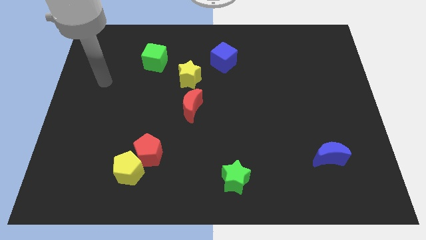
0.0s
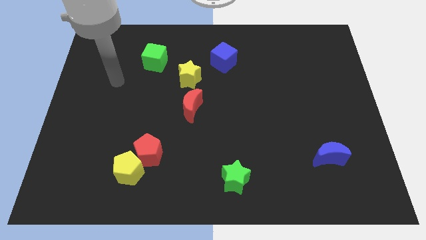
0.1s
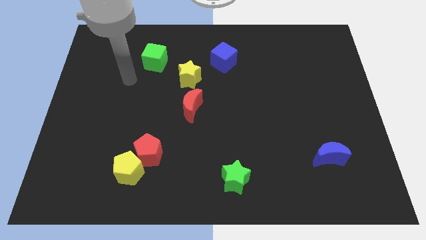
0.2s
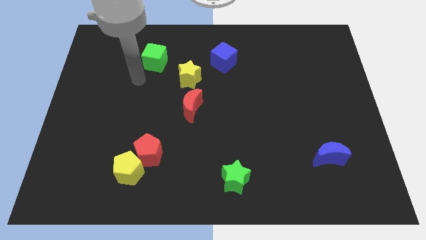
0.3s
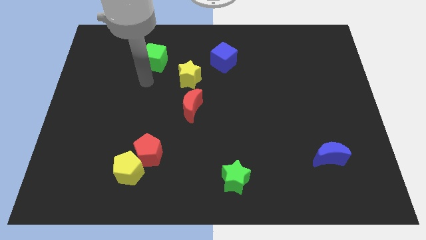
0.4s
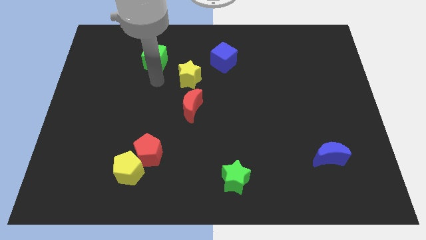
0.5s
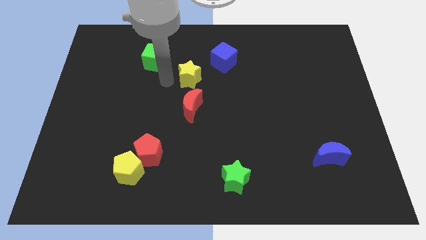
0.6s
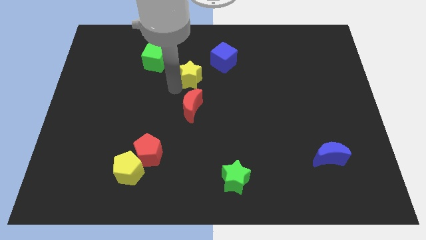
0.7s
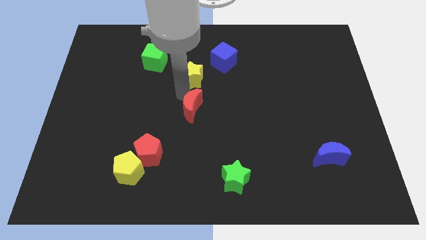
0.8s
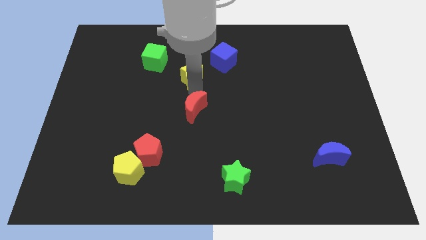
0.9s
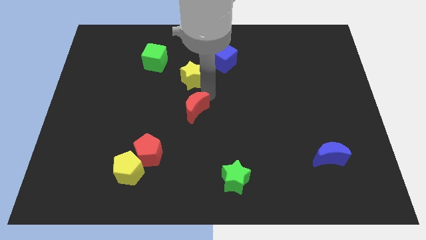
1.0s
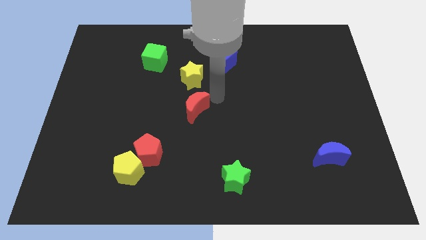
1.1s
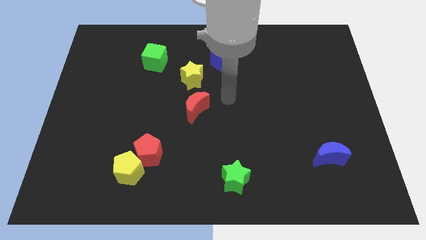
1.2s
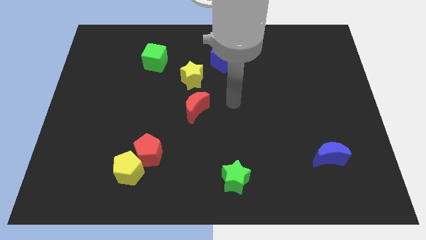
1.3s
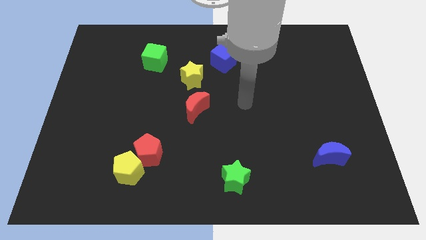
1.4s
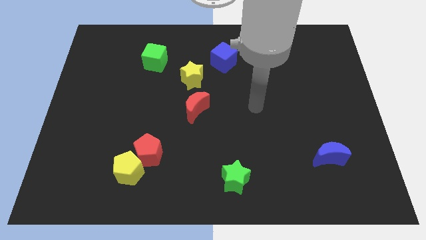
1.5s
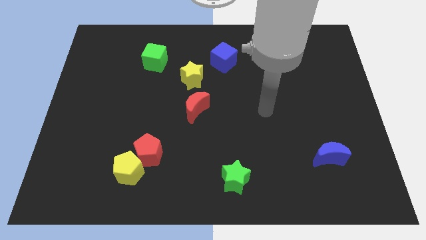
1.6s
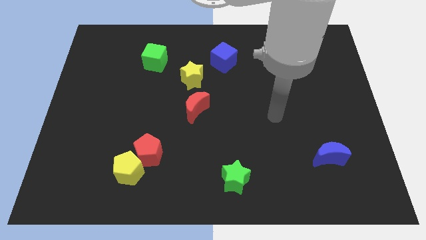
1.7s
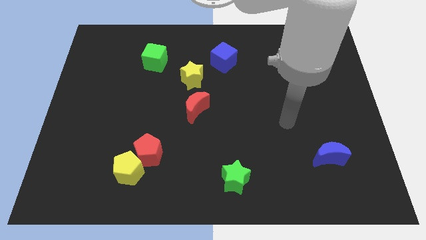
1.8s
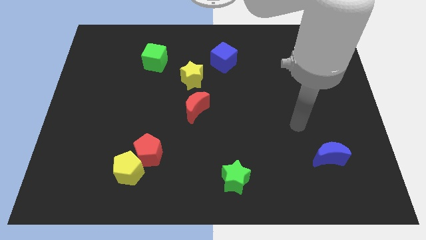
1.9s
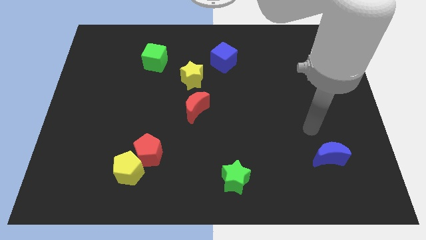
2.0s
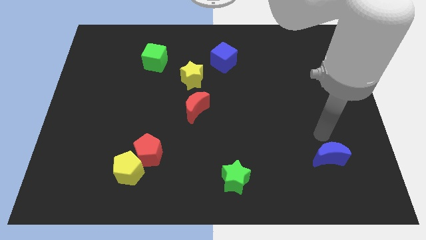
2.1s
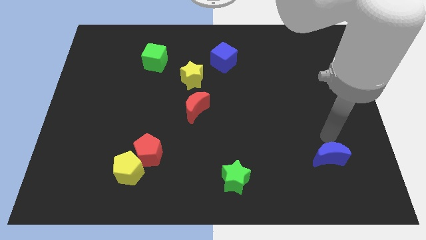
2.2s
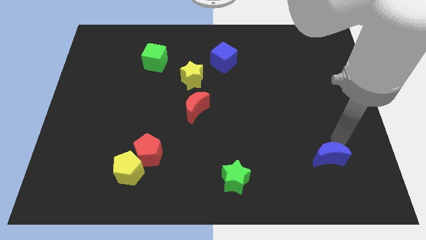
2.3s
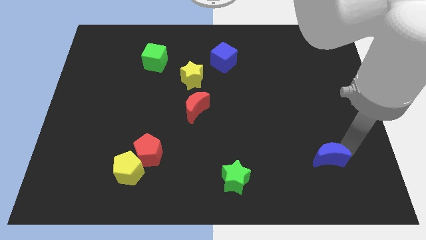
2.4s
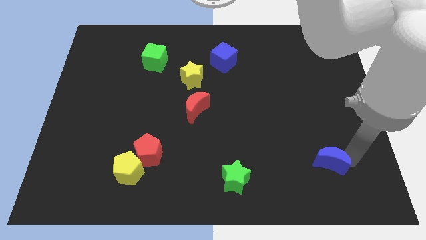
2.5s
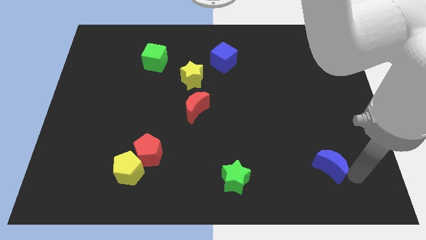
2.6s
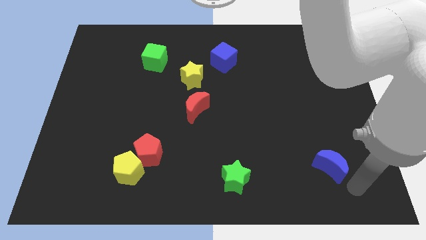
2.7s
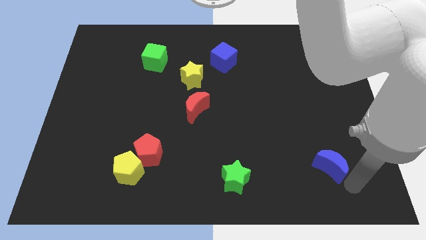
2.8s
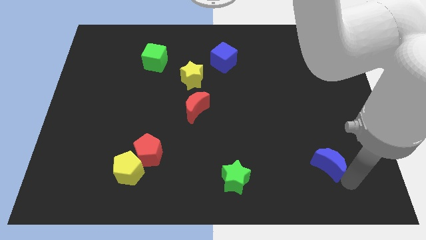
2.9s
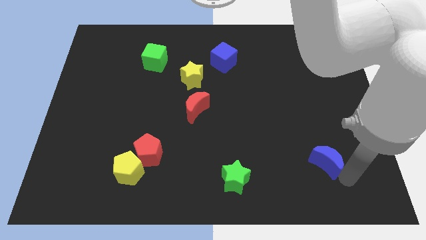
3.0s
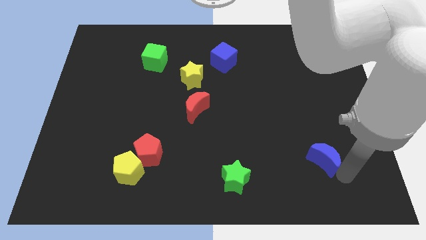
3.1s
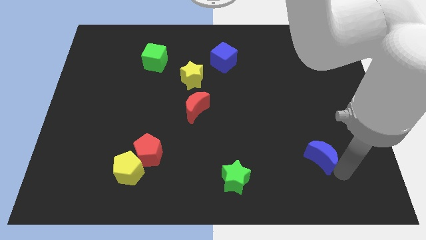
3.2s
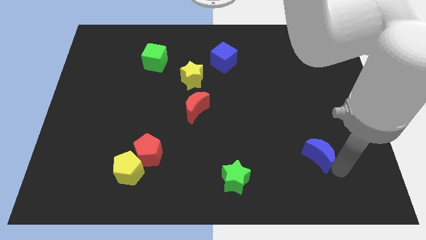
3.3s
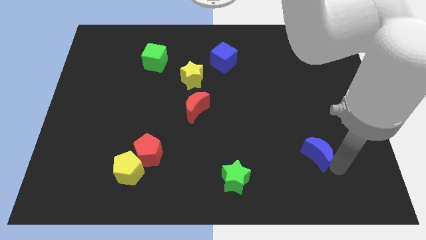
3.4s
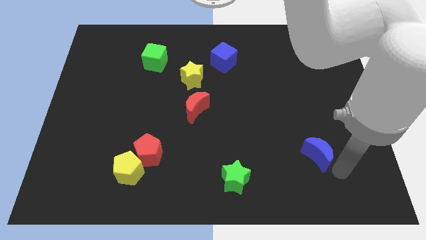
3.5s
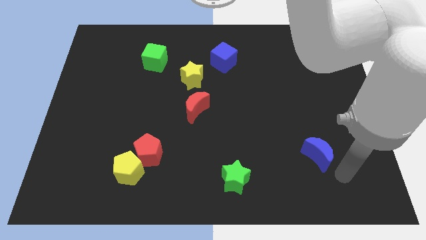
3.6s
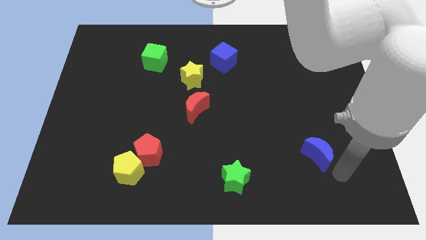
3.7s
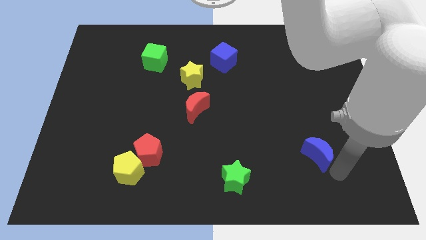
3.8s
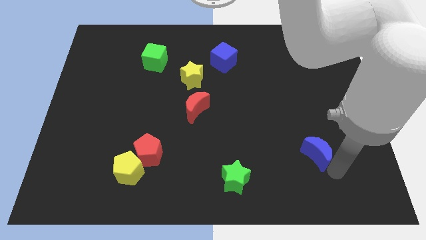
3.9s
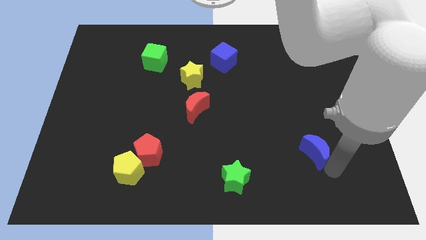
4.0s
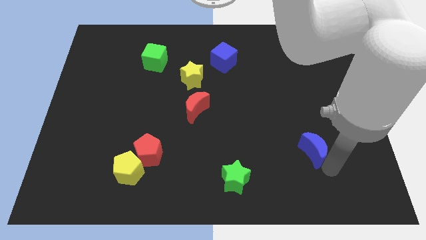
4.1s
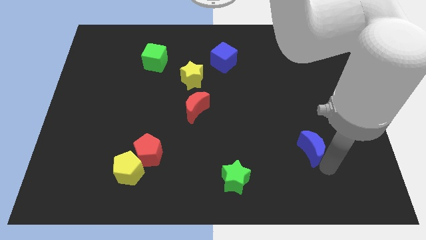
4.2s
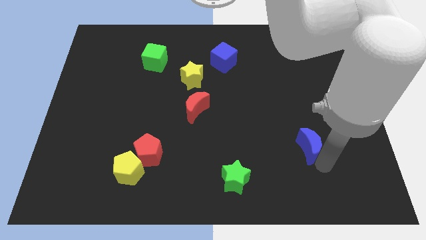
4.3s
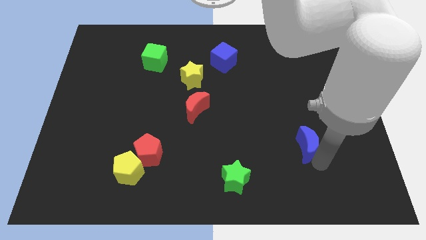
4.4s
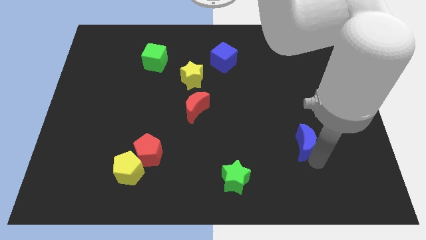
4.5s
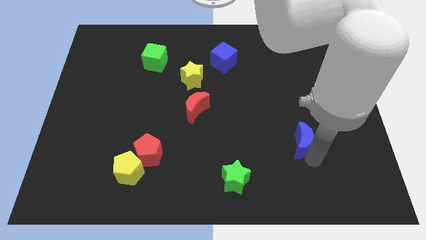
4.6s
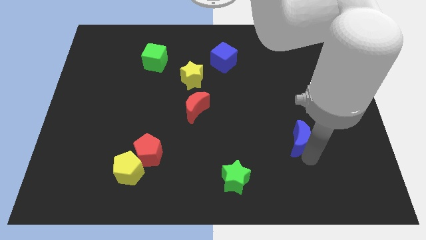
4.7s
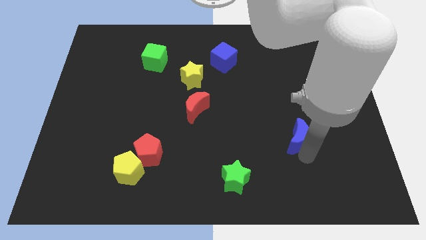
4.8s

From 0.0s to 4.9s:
slightly slide the blue moon diagonally upwards and left

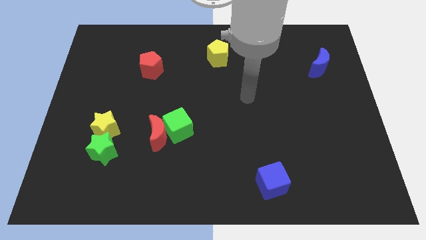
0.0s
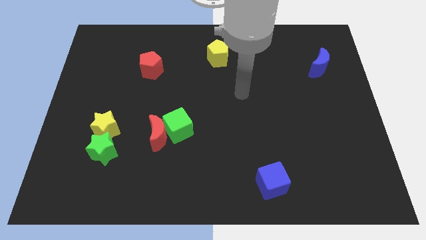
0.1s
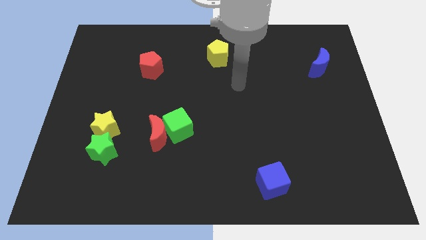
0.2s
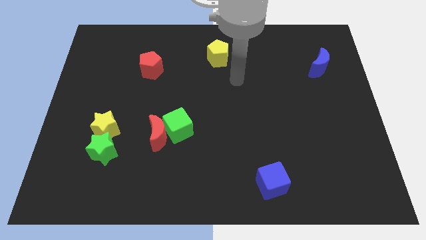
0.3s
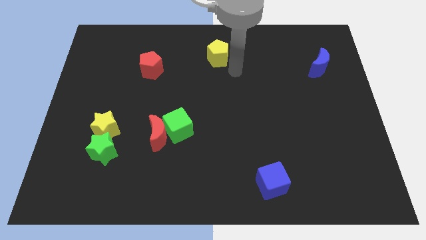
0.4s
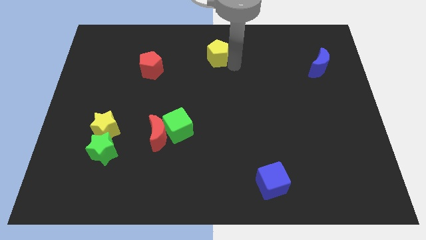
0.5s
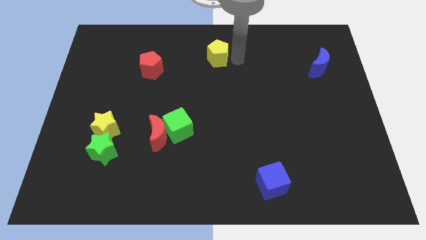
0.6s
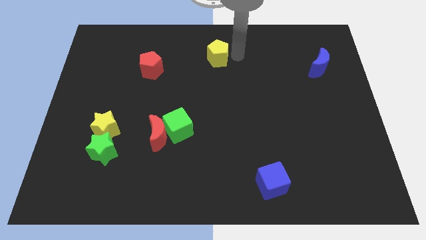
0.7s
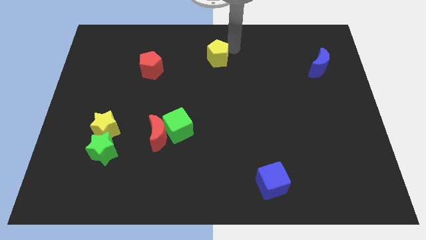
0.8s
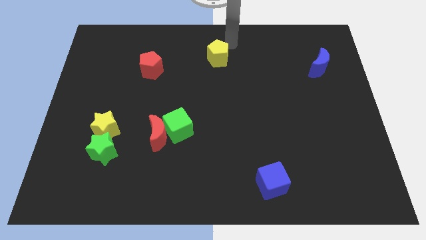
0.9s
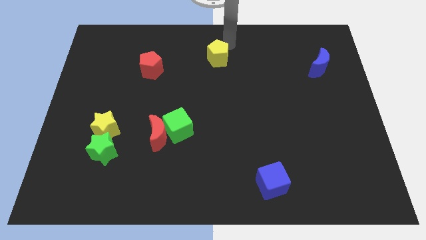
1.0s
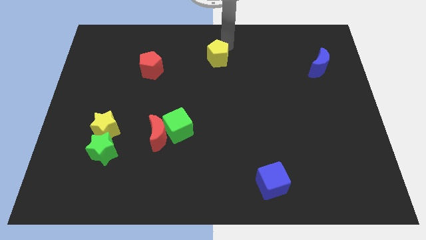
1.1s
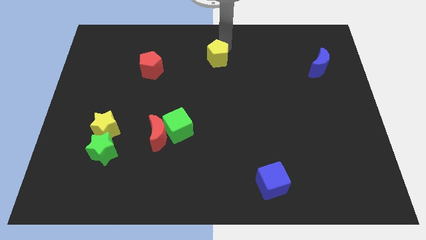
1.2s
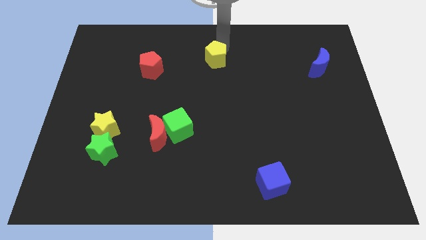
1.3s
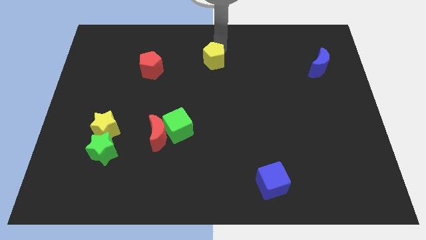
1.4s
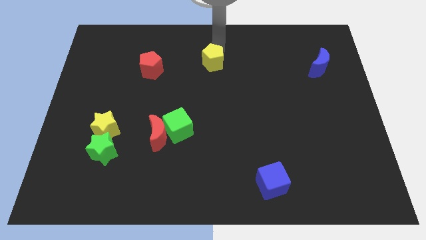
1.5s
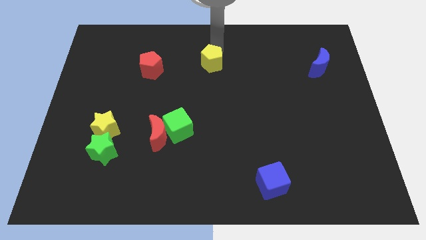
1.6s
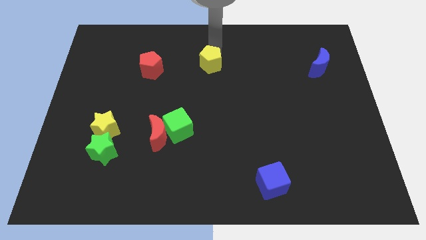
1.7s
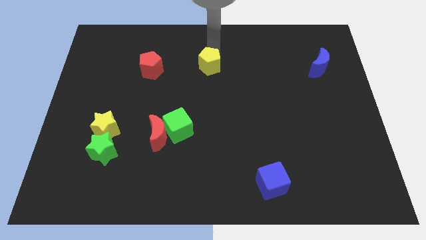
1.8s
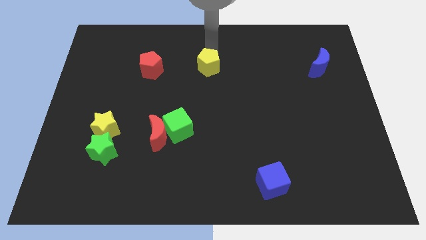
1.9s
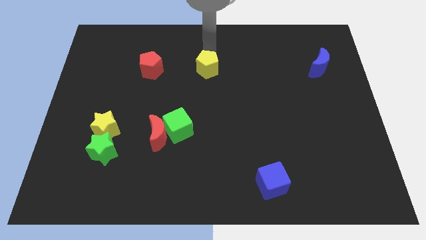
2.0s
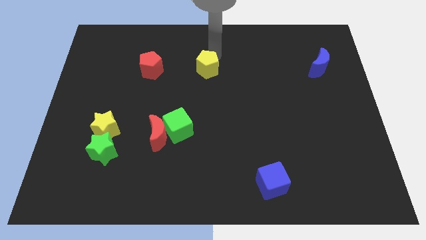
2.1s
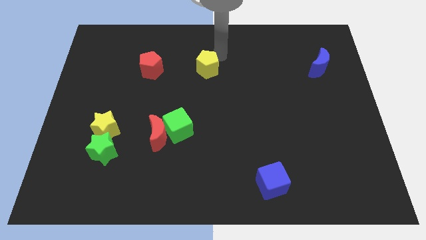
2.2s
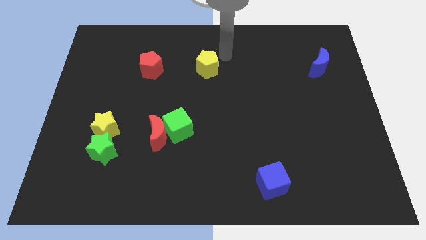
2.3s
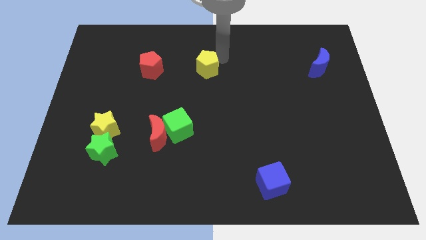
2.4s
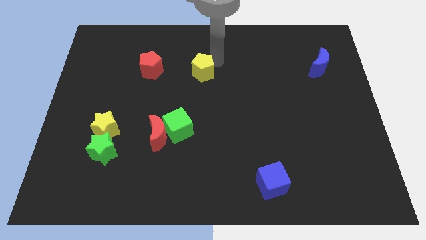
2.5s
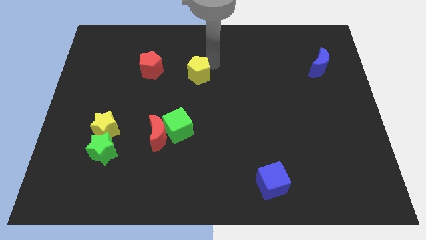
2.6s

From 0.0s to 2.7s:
slide the yellow pentagon downwards and left diagonally slightly

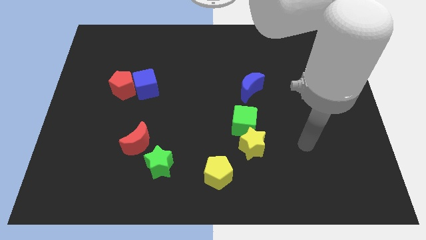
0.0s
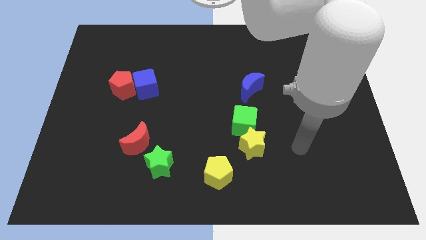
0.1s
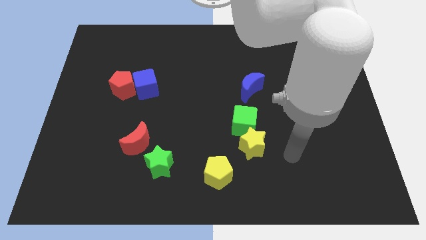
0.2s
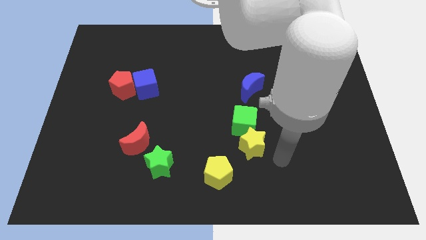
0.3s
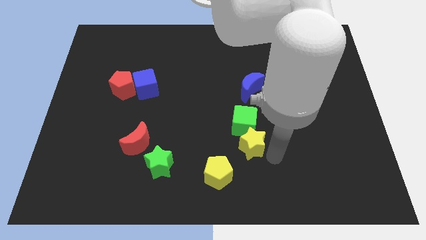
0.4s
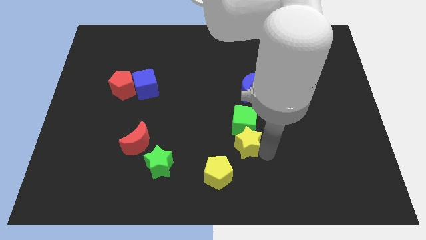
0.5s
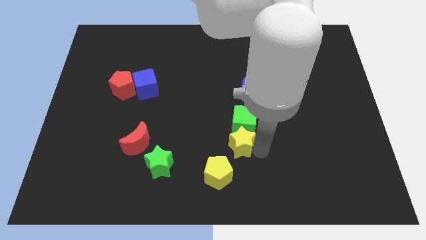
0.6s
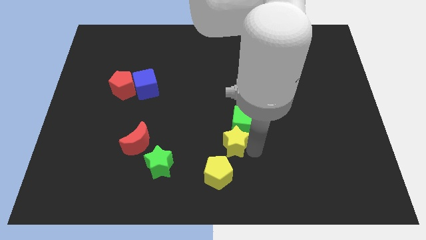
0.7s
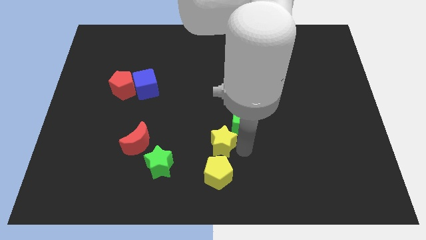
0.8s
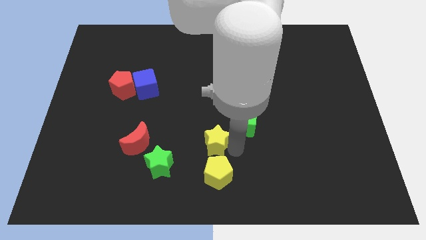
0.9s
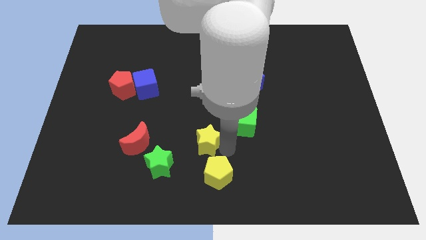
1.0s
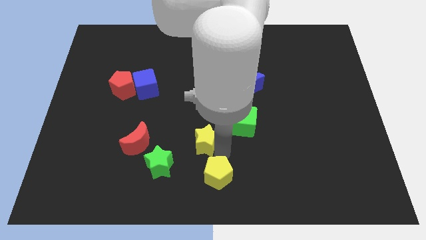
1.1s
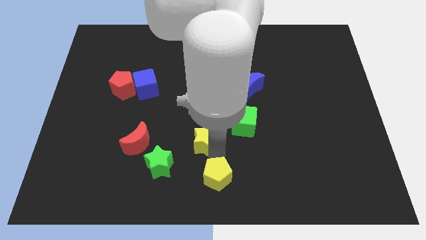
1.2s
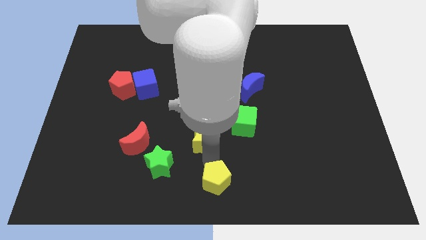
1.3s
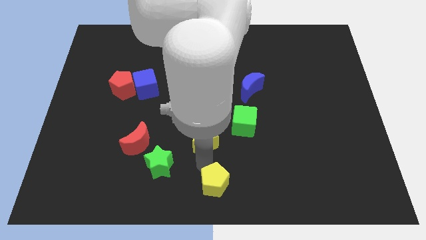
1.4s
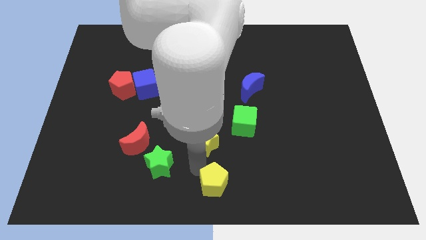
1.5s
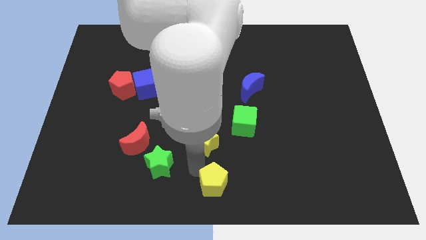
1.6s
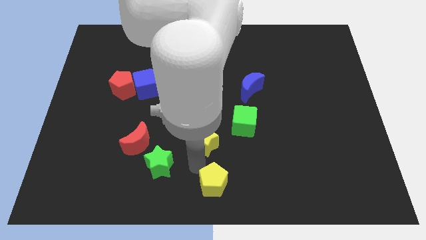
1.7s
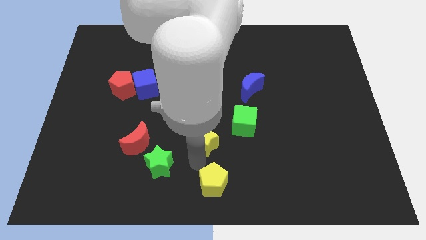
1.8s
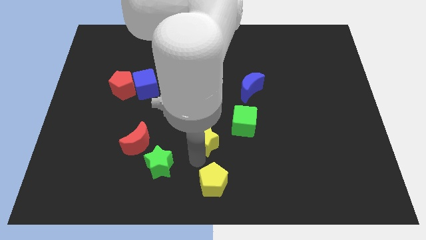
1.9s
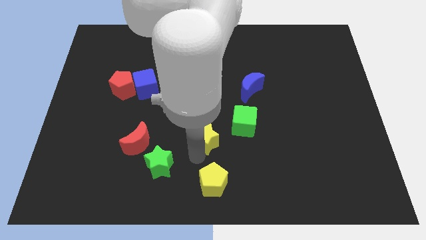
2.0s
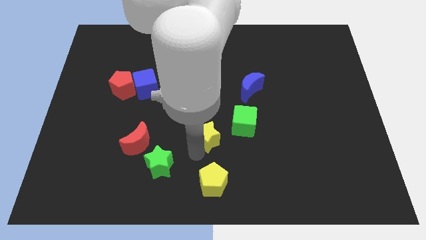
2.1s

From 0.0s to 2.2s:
slightly move the yellow star upwards and left
